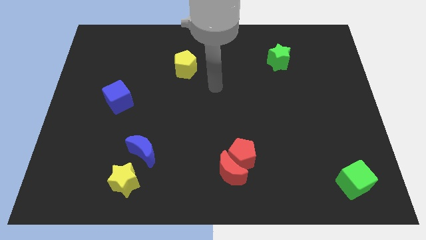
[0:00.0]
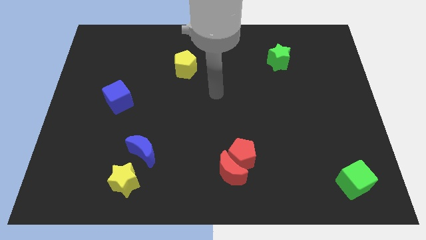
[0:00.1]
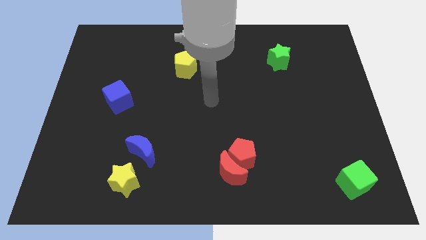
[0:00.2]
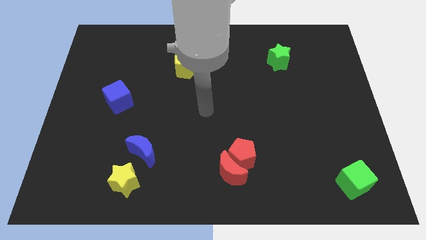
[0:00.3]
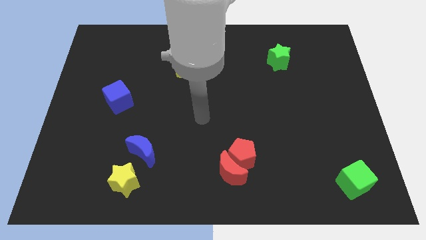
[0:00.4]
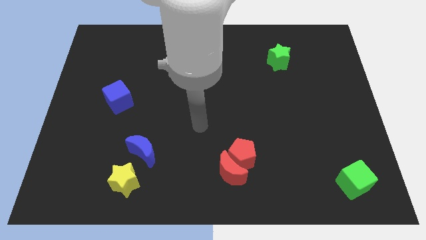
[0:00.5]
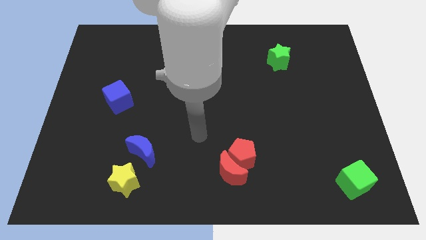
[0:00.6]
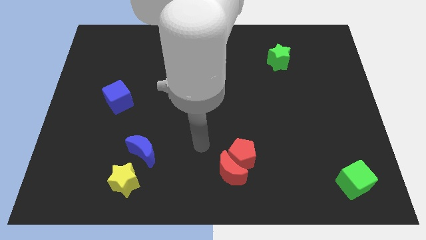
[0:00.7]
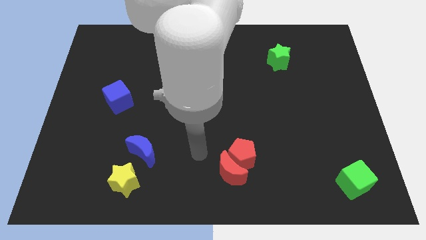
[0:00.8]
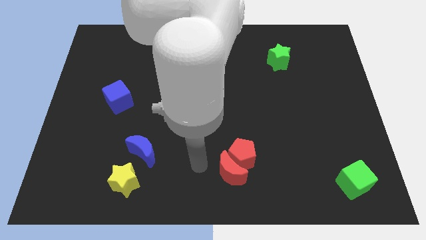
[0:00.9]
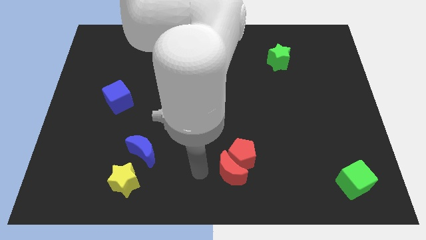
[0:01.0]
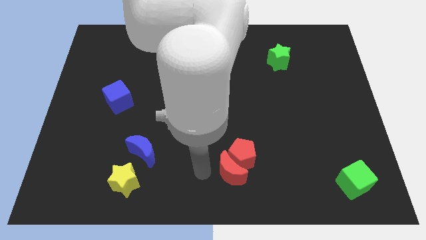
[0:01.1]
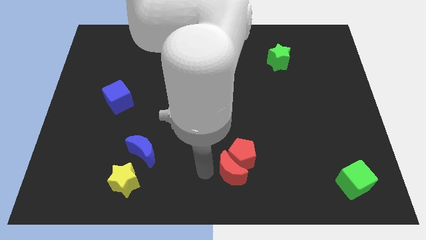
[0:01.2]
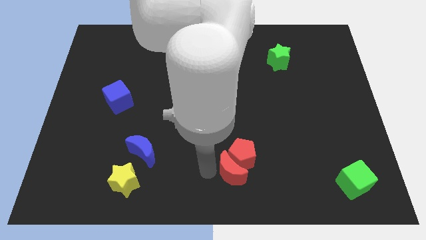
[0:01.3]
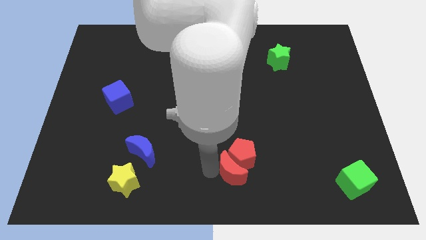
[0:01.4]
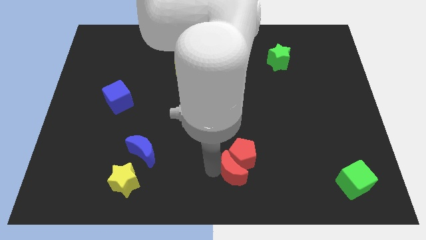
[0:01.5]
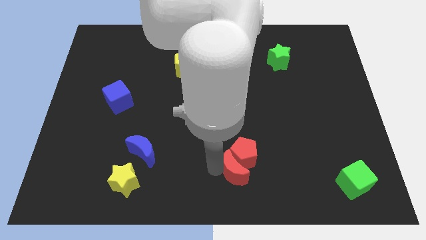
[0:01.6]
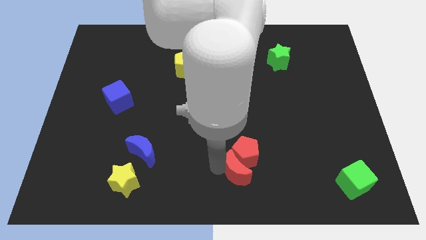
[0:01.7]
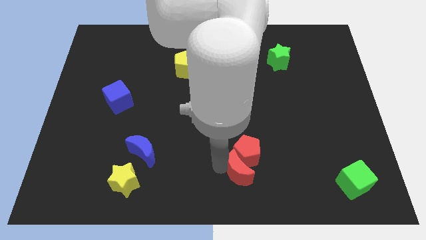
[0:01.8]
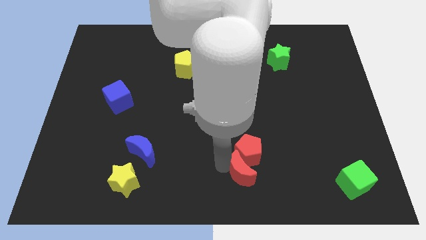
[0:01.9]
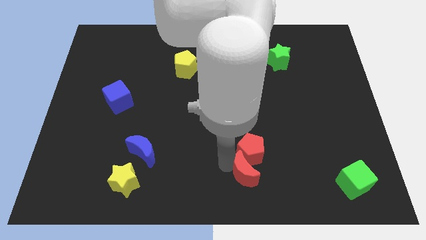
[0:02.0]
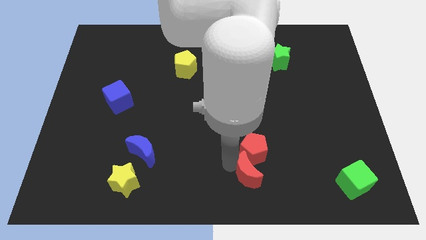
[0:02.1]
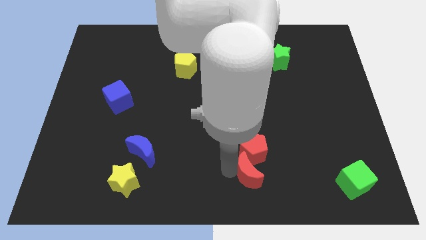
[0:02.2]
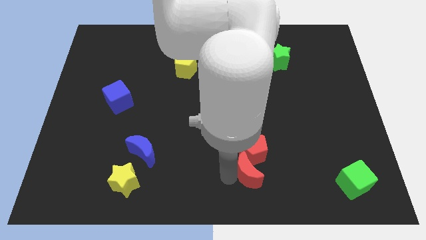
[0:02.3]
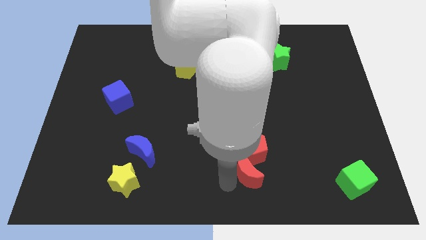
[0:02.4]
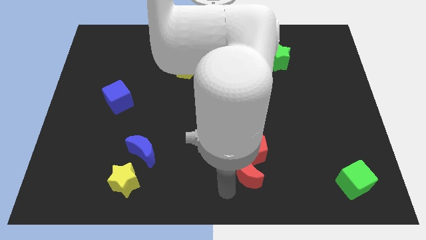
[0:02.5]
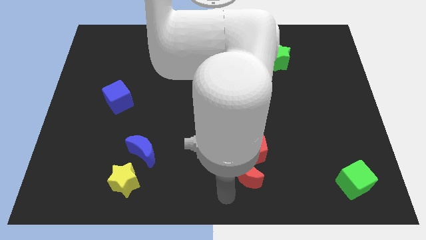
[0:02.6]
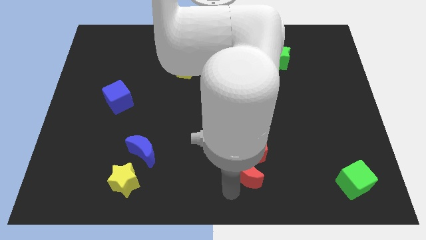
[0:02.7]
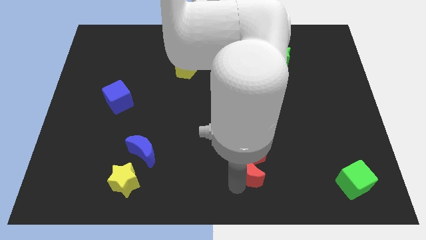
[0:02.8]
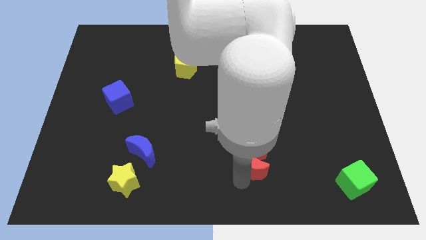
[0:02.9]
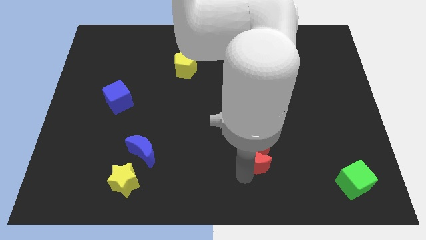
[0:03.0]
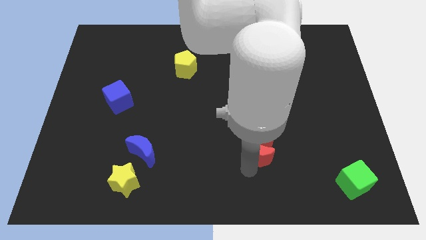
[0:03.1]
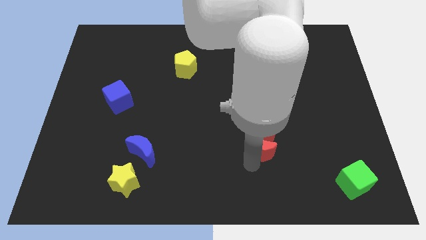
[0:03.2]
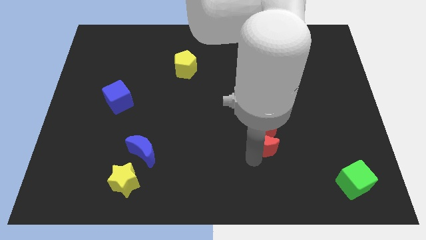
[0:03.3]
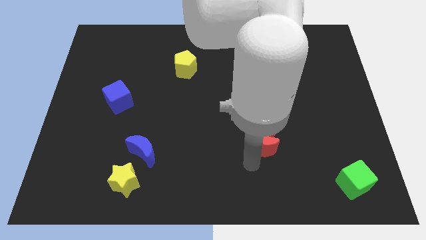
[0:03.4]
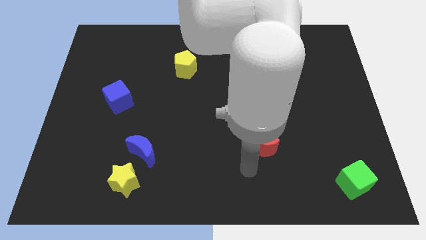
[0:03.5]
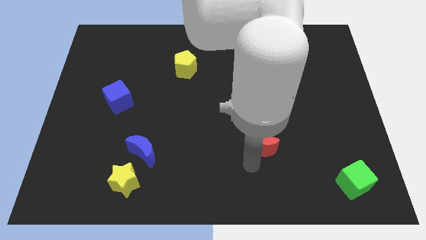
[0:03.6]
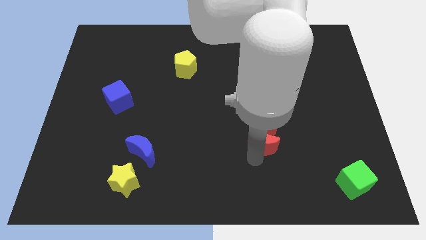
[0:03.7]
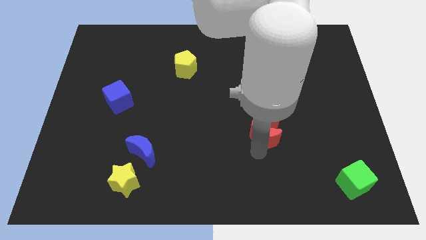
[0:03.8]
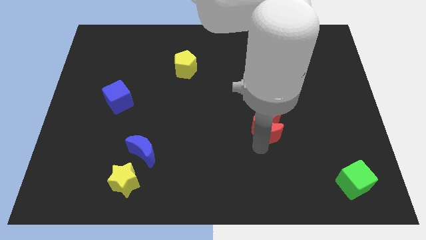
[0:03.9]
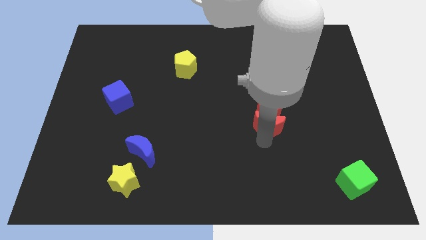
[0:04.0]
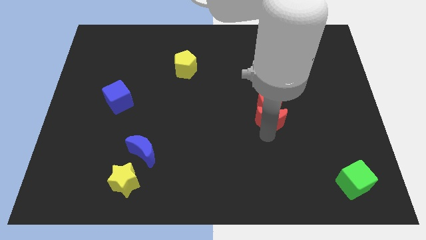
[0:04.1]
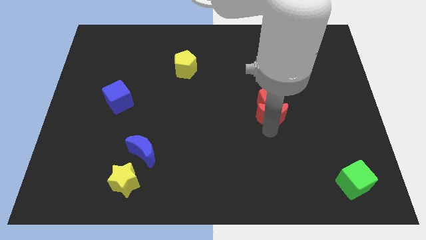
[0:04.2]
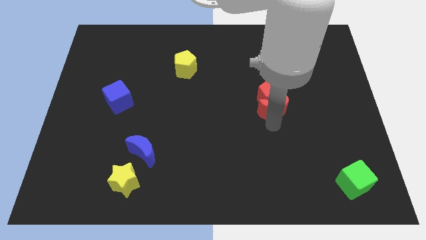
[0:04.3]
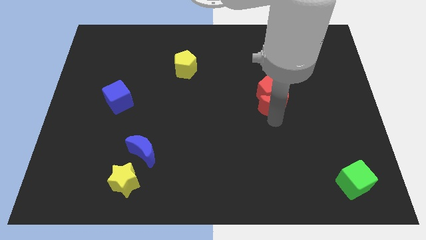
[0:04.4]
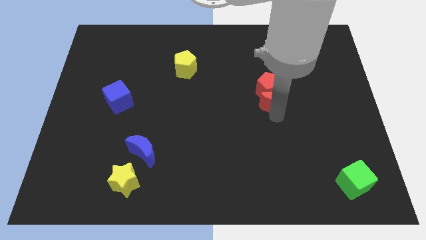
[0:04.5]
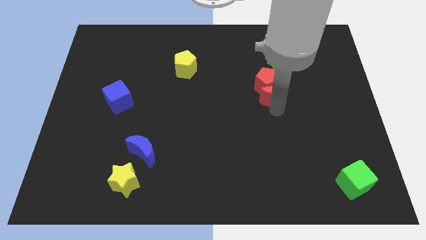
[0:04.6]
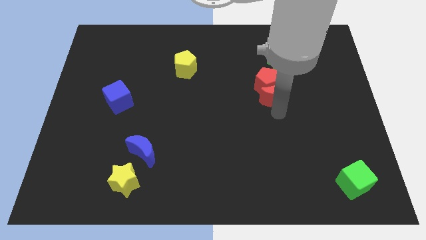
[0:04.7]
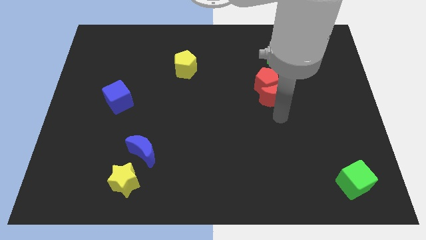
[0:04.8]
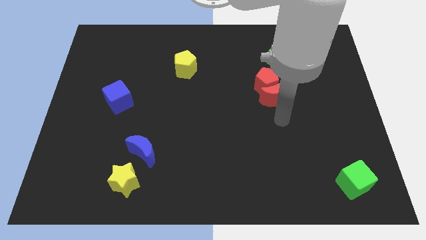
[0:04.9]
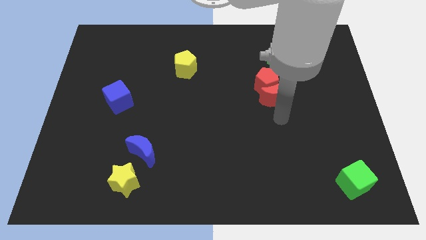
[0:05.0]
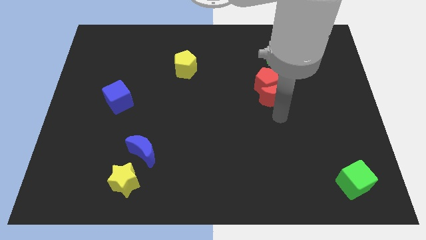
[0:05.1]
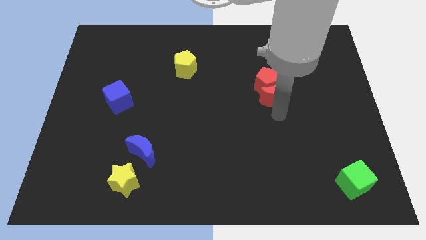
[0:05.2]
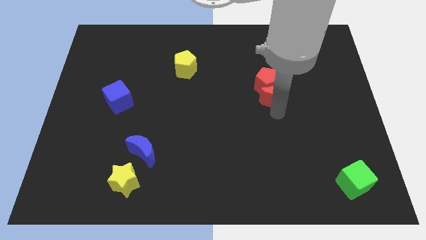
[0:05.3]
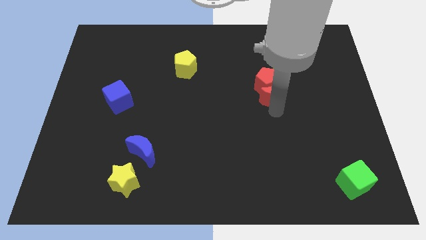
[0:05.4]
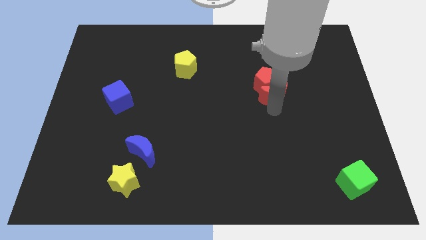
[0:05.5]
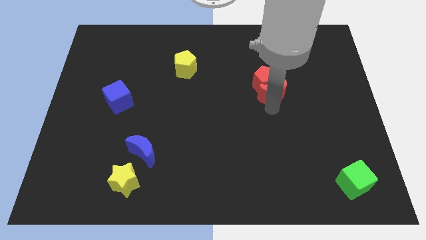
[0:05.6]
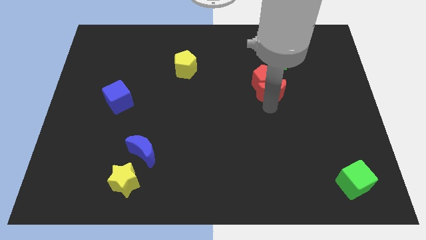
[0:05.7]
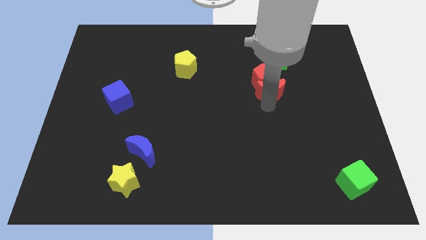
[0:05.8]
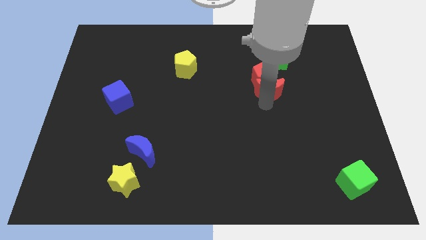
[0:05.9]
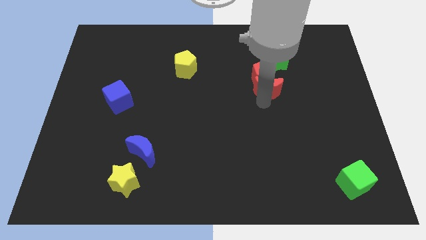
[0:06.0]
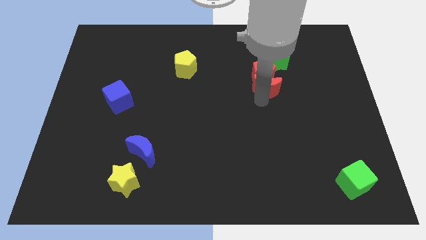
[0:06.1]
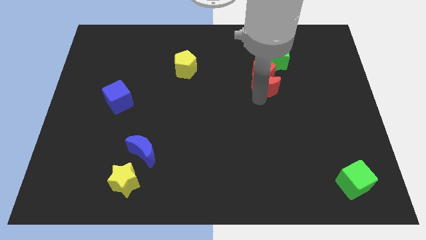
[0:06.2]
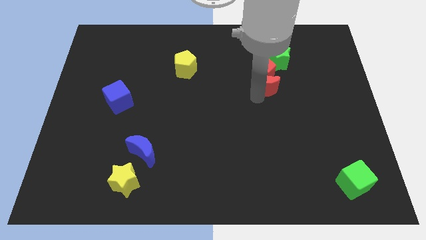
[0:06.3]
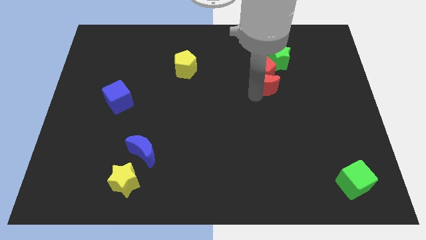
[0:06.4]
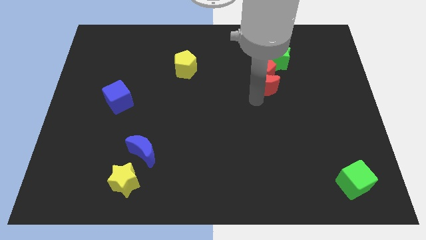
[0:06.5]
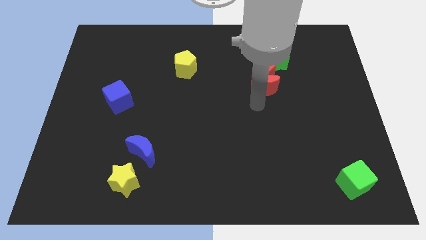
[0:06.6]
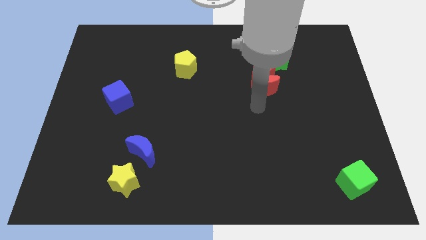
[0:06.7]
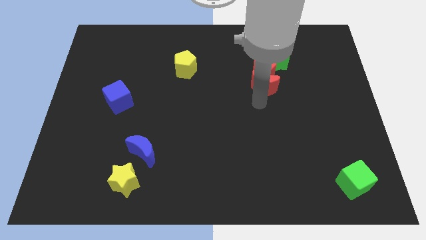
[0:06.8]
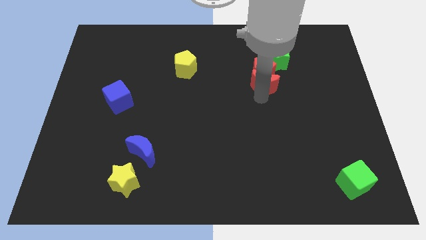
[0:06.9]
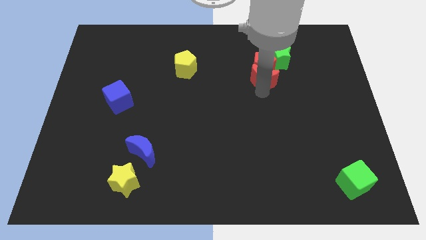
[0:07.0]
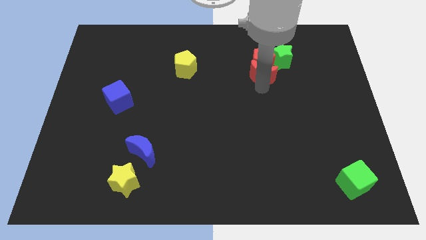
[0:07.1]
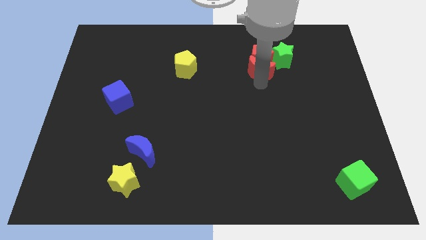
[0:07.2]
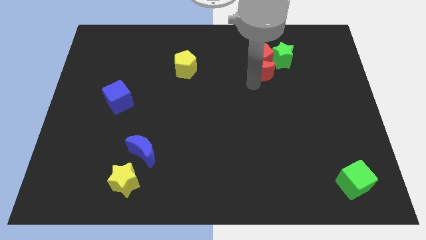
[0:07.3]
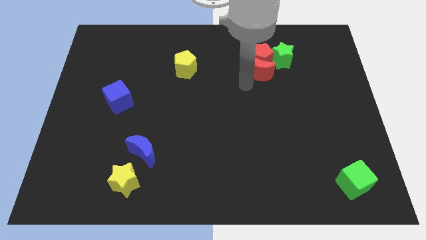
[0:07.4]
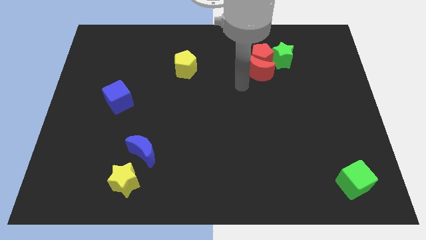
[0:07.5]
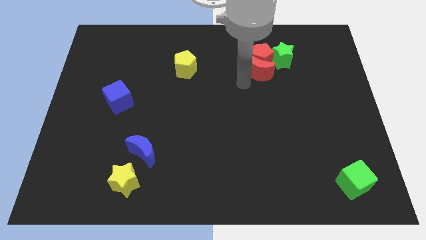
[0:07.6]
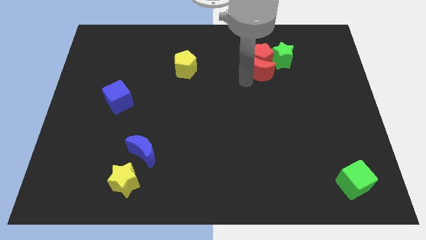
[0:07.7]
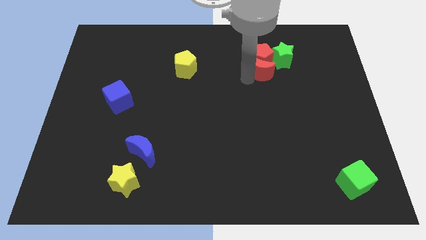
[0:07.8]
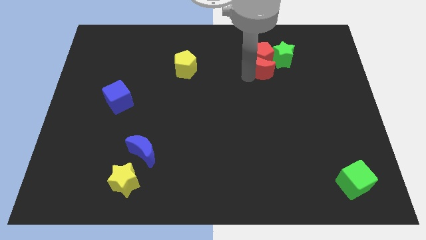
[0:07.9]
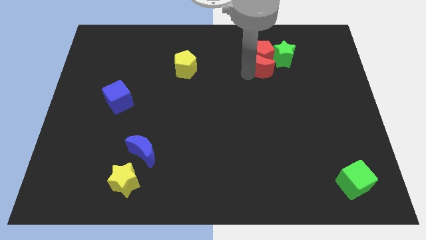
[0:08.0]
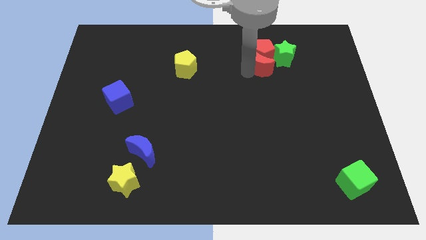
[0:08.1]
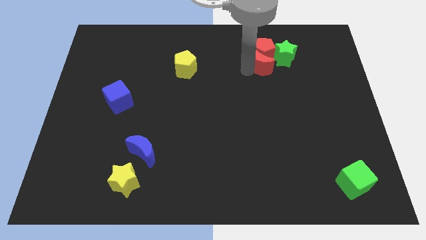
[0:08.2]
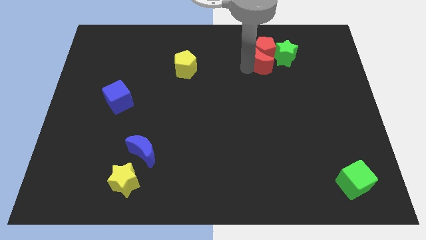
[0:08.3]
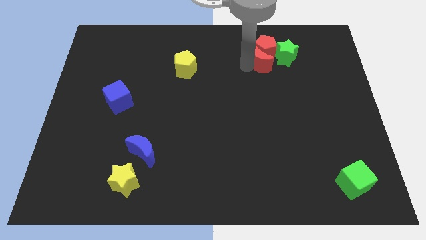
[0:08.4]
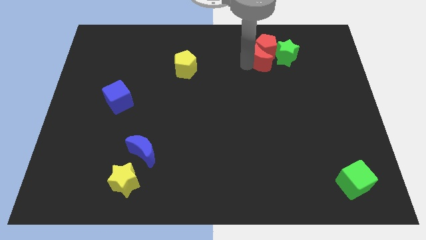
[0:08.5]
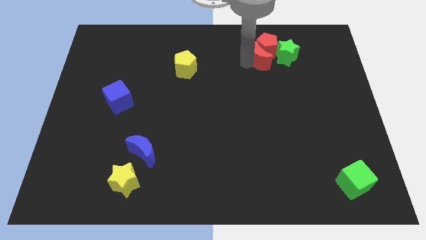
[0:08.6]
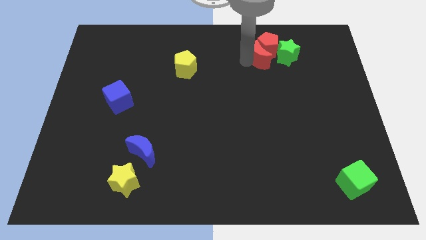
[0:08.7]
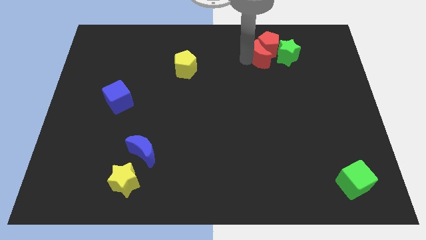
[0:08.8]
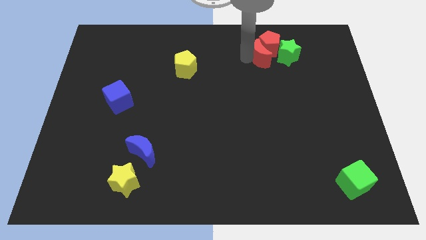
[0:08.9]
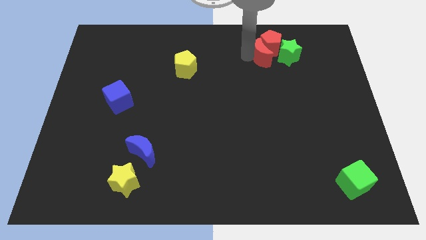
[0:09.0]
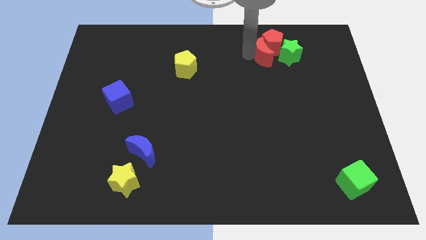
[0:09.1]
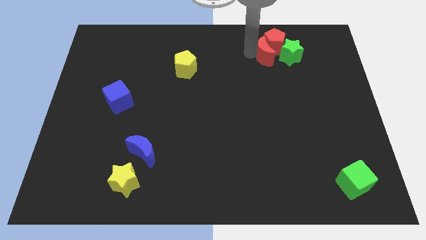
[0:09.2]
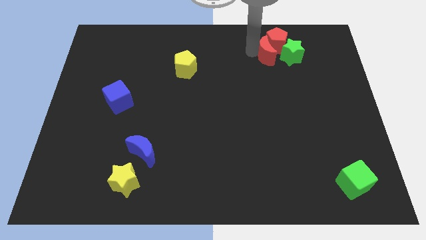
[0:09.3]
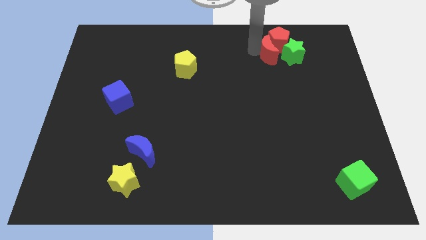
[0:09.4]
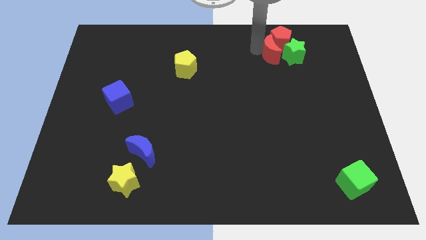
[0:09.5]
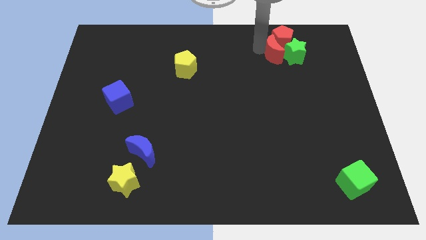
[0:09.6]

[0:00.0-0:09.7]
move the red moon next to the green star
